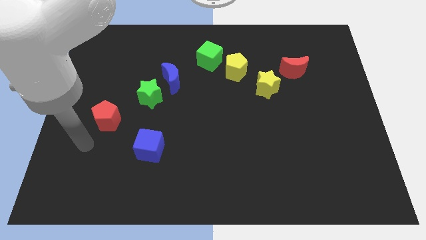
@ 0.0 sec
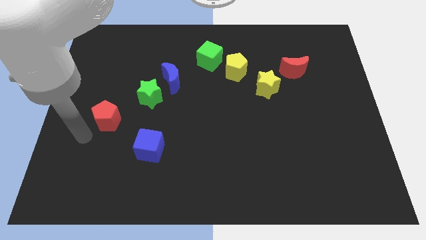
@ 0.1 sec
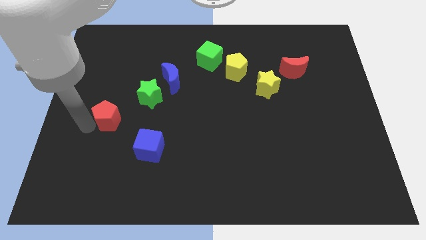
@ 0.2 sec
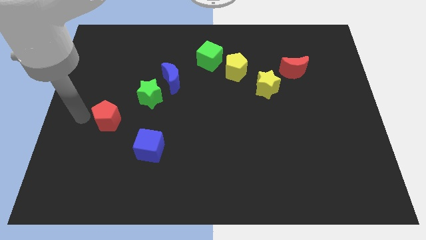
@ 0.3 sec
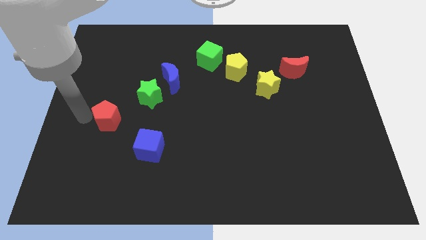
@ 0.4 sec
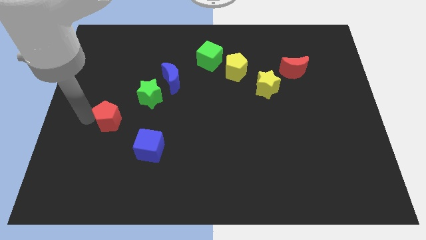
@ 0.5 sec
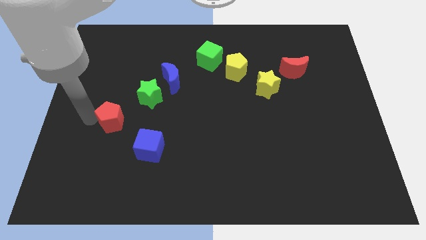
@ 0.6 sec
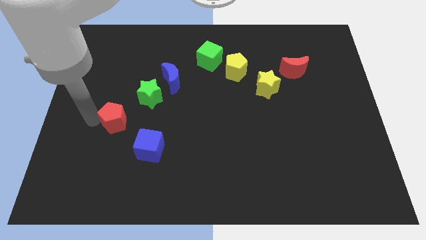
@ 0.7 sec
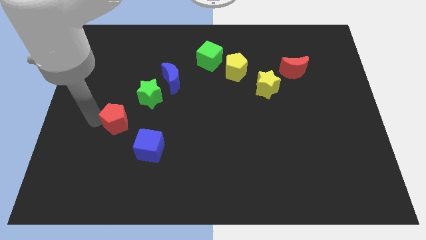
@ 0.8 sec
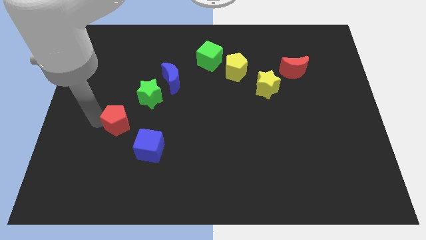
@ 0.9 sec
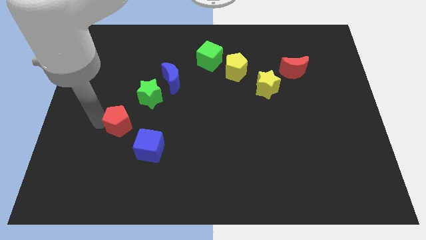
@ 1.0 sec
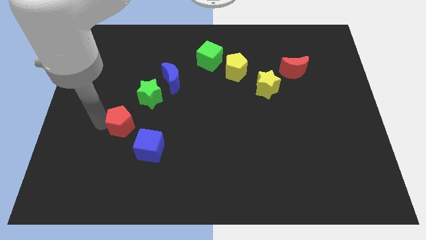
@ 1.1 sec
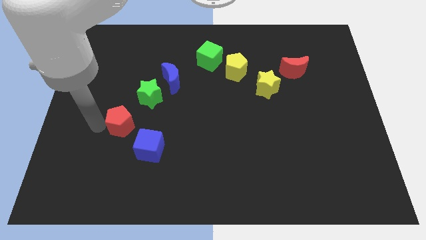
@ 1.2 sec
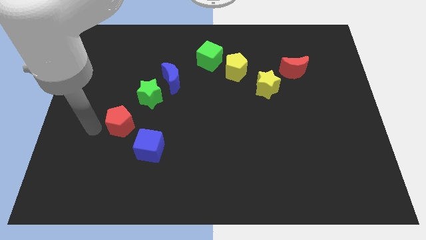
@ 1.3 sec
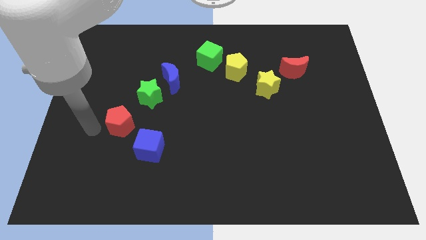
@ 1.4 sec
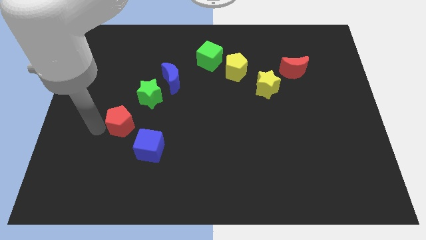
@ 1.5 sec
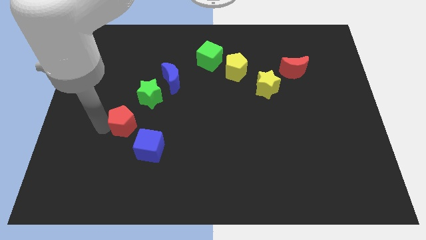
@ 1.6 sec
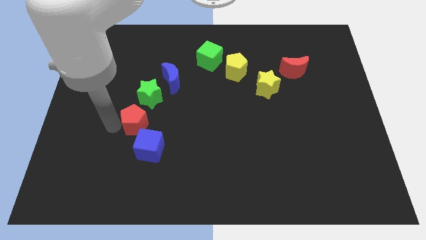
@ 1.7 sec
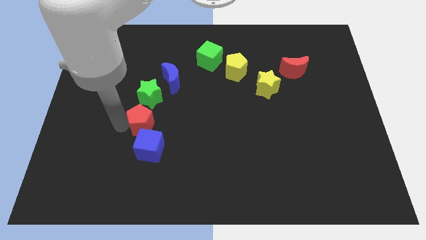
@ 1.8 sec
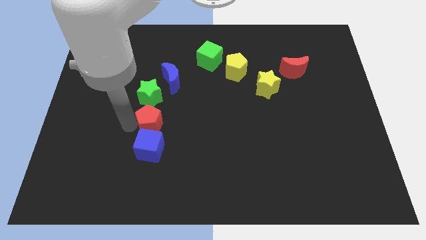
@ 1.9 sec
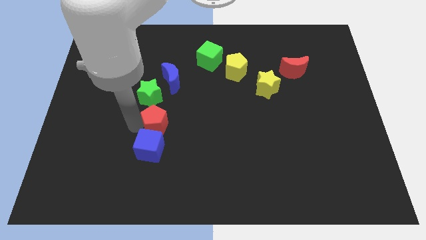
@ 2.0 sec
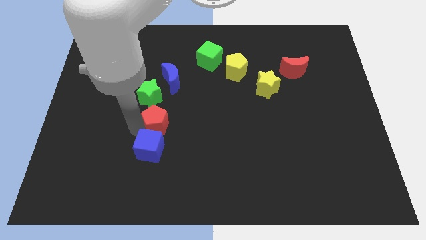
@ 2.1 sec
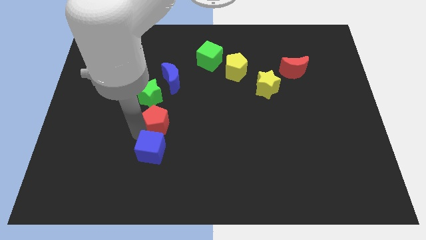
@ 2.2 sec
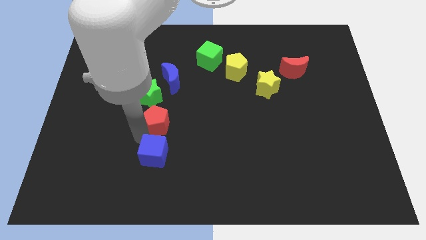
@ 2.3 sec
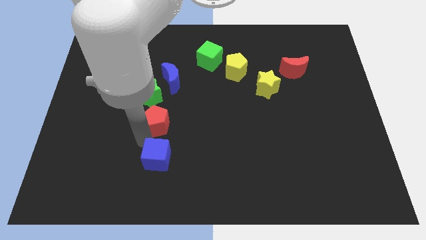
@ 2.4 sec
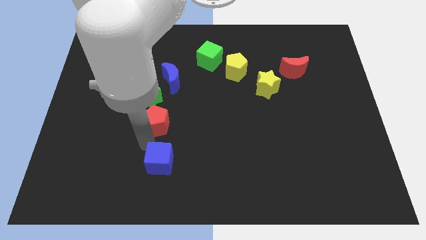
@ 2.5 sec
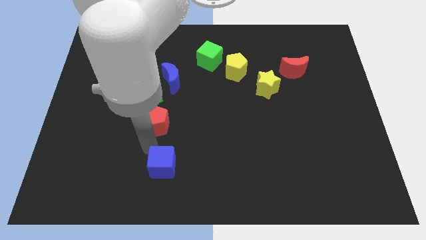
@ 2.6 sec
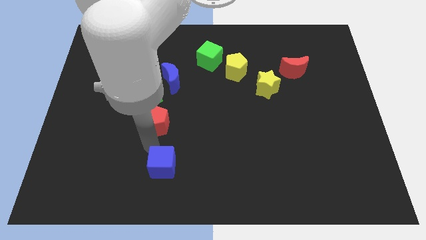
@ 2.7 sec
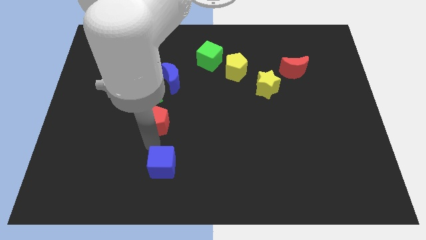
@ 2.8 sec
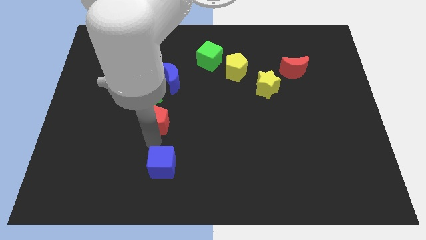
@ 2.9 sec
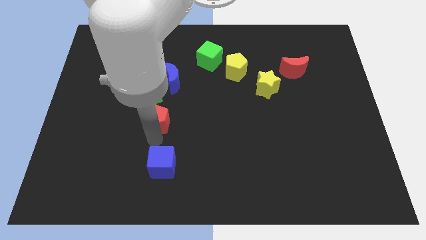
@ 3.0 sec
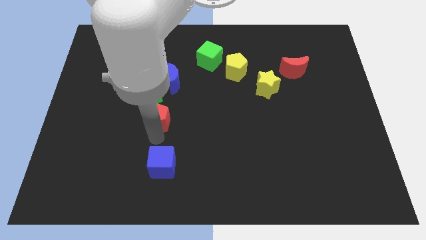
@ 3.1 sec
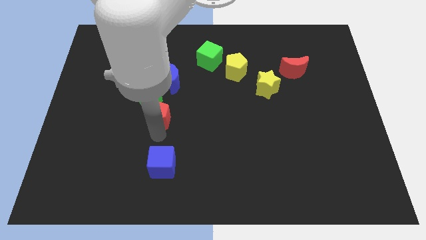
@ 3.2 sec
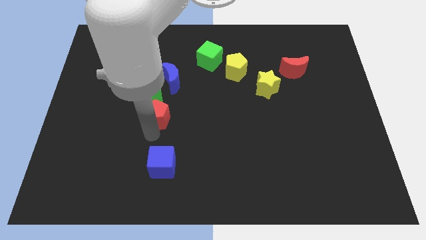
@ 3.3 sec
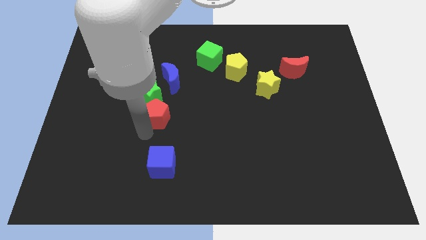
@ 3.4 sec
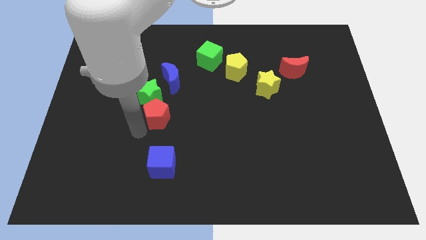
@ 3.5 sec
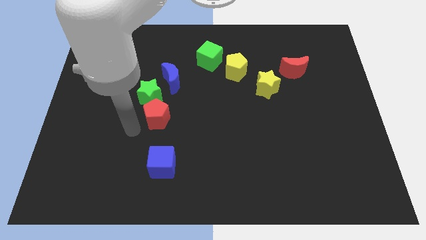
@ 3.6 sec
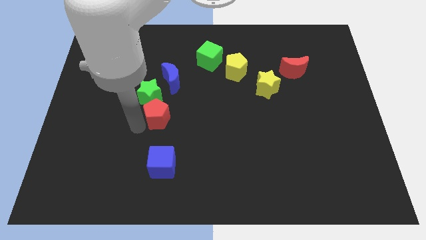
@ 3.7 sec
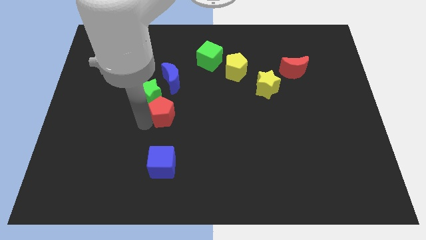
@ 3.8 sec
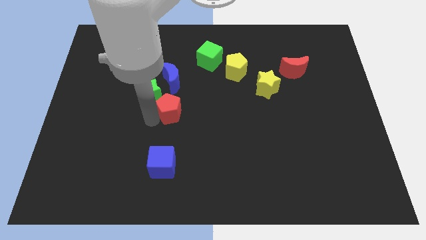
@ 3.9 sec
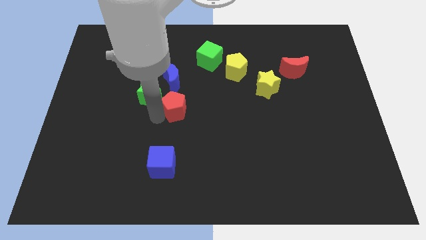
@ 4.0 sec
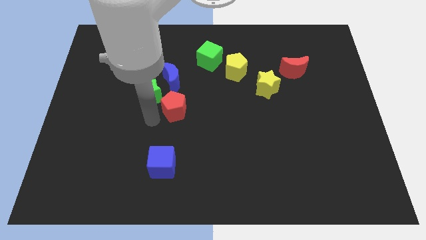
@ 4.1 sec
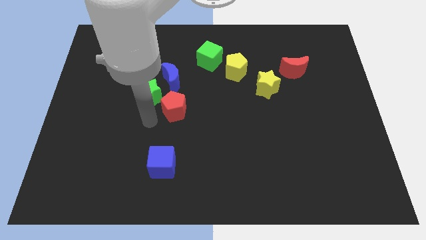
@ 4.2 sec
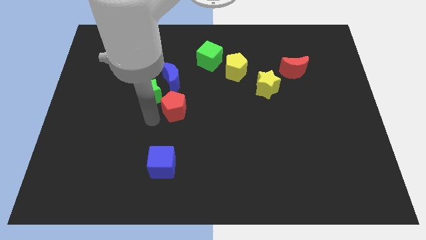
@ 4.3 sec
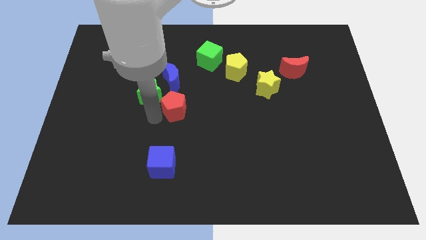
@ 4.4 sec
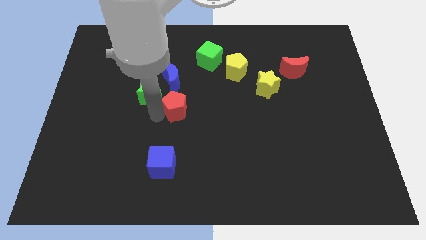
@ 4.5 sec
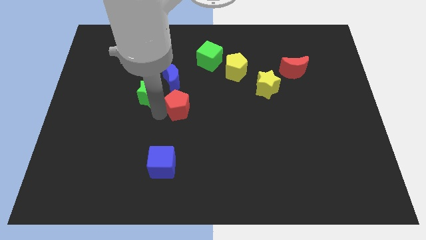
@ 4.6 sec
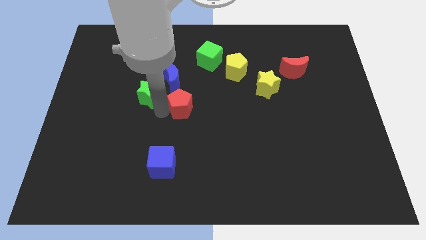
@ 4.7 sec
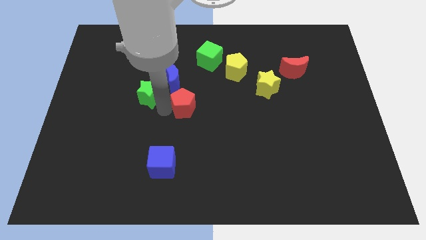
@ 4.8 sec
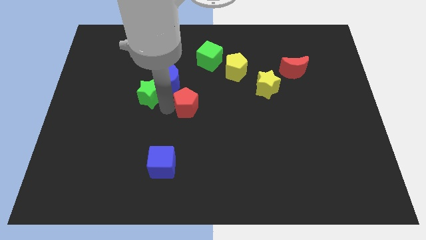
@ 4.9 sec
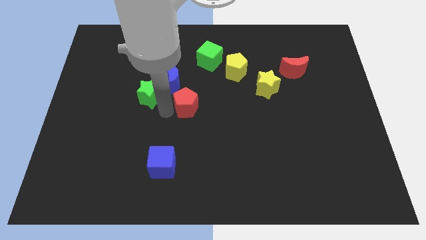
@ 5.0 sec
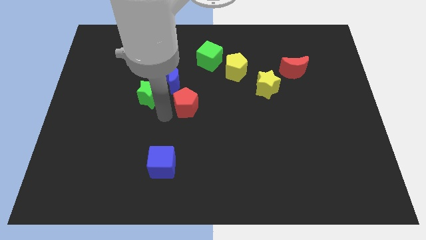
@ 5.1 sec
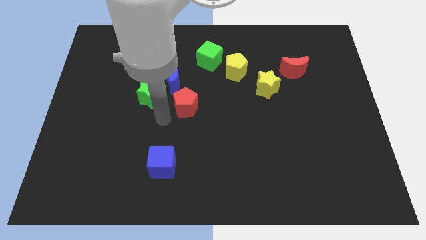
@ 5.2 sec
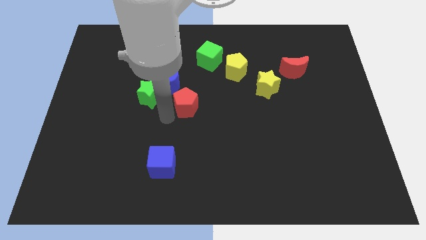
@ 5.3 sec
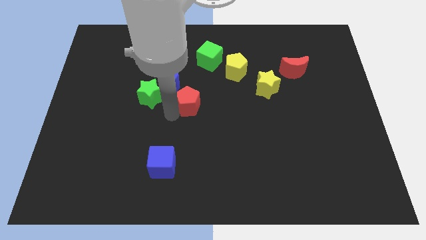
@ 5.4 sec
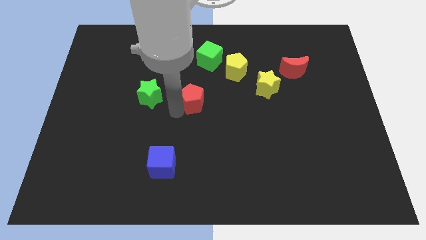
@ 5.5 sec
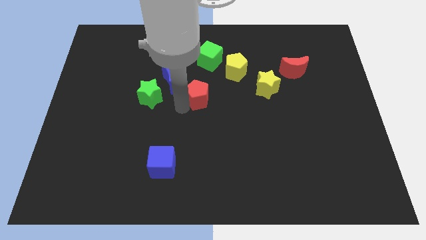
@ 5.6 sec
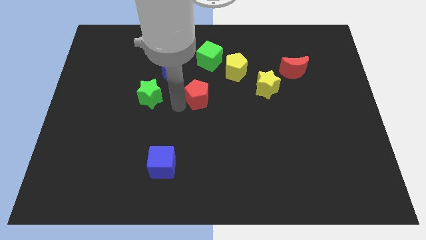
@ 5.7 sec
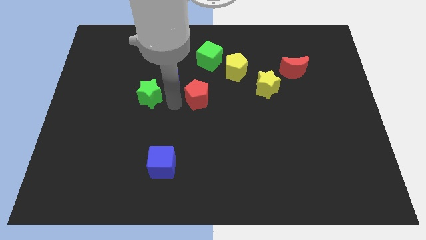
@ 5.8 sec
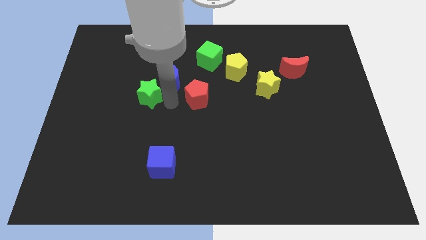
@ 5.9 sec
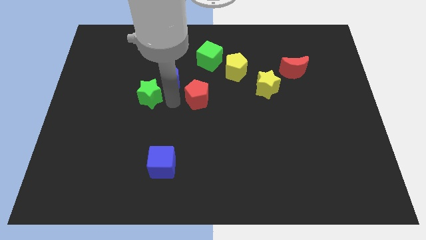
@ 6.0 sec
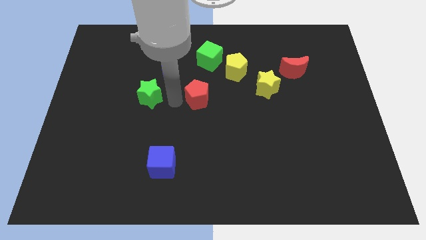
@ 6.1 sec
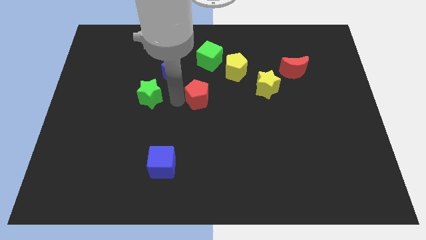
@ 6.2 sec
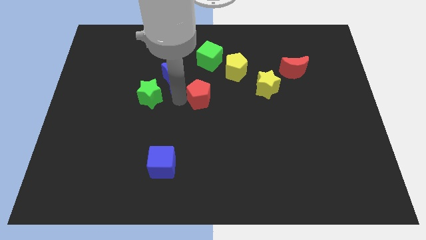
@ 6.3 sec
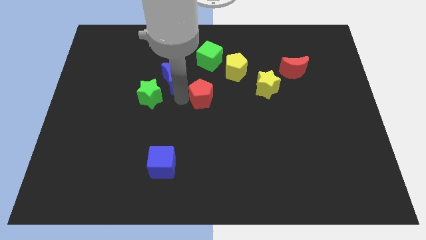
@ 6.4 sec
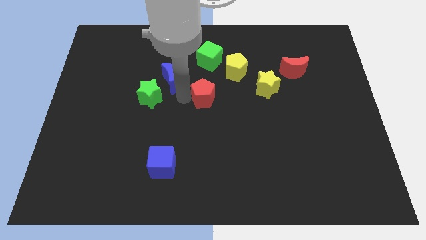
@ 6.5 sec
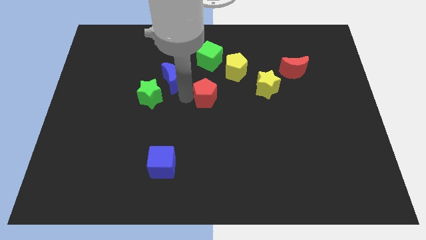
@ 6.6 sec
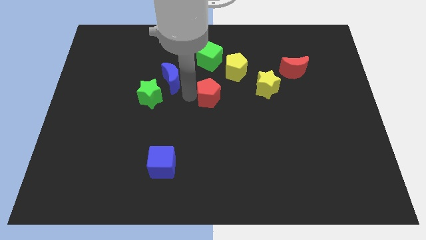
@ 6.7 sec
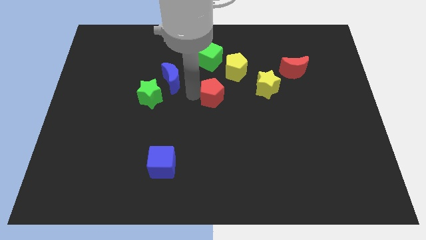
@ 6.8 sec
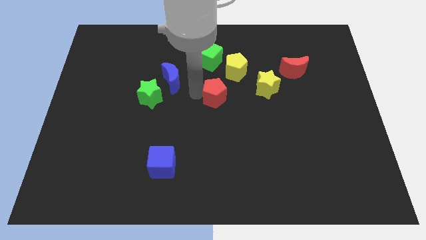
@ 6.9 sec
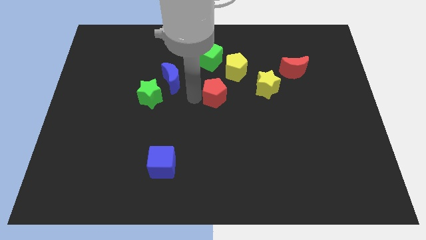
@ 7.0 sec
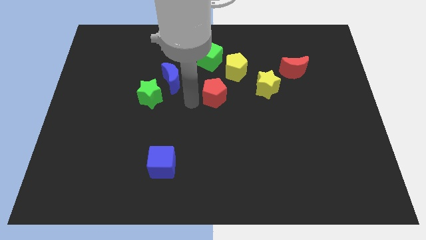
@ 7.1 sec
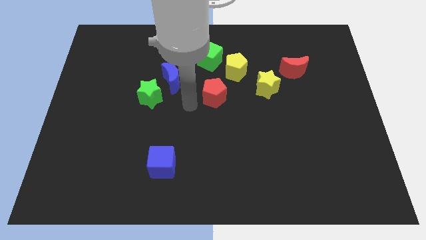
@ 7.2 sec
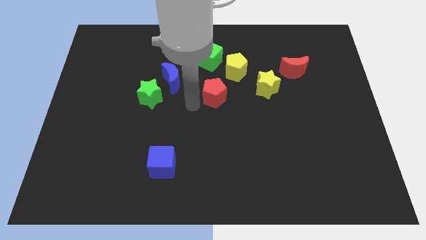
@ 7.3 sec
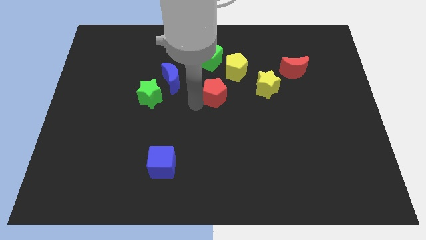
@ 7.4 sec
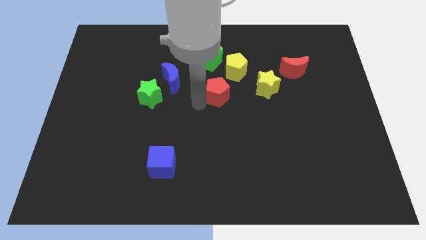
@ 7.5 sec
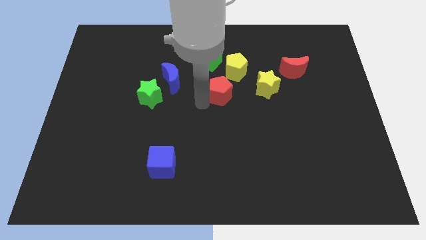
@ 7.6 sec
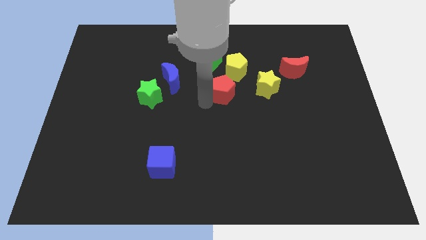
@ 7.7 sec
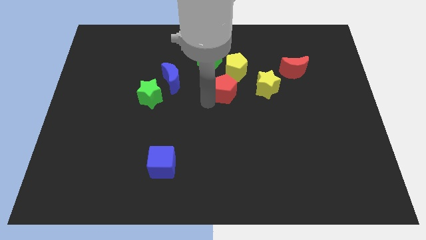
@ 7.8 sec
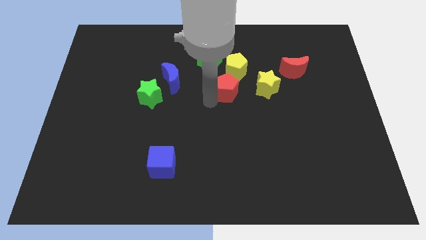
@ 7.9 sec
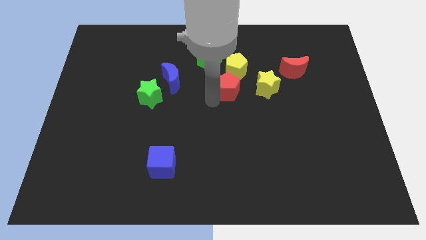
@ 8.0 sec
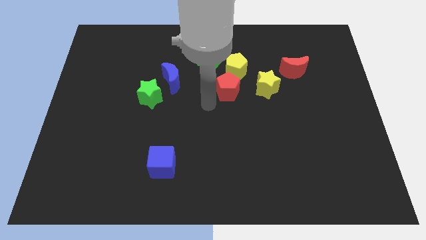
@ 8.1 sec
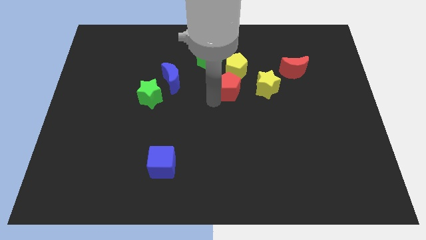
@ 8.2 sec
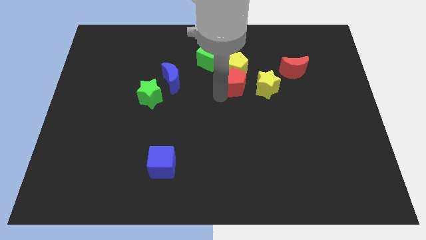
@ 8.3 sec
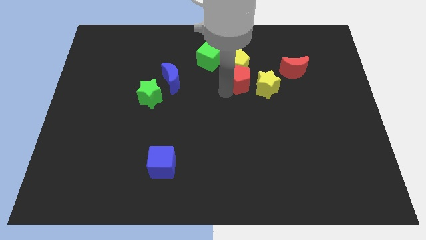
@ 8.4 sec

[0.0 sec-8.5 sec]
push the red pentagon to the left of the red moon
